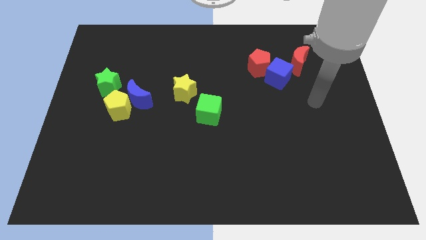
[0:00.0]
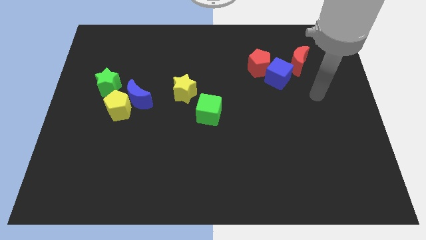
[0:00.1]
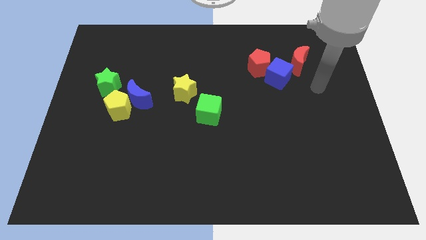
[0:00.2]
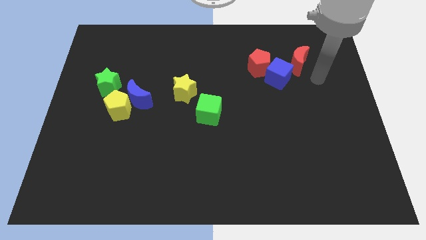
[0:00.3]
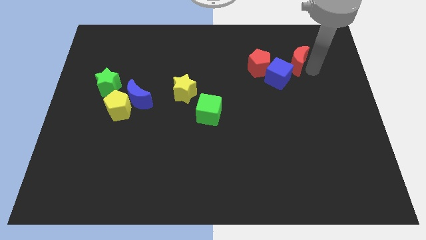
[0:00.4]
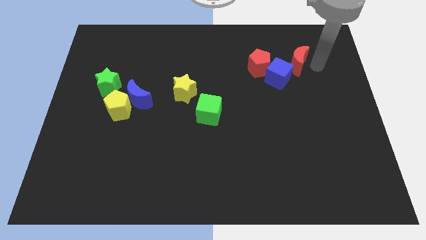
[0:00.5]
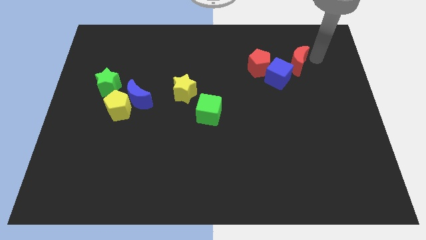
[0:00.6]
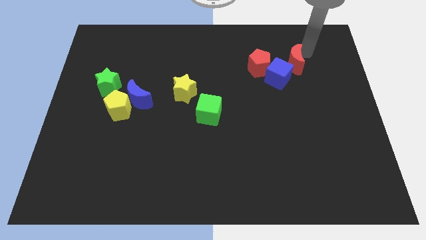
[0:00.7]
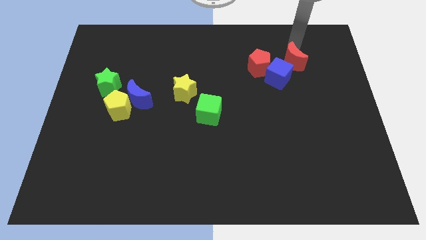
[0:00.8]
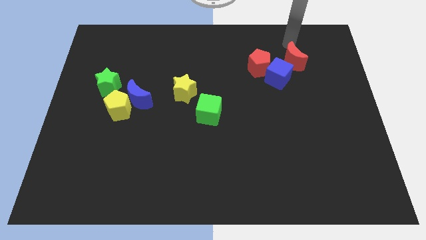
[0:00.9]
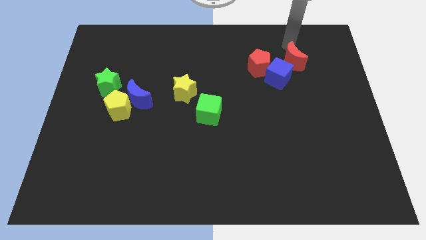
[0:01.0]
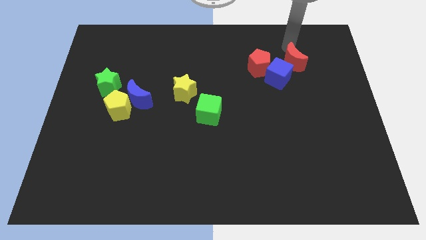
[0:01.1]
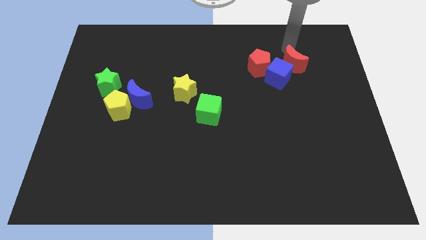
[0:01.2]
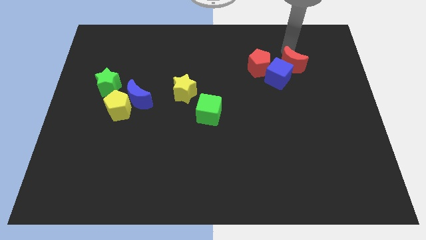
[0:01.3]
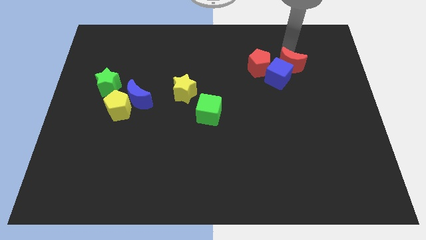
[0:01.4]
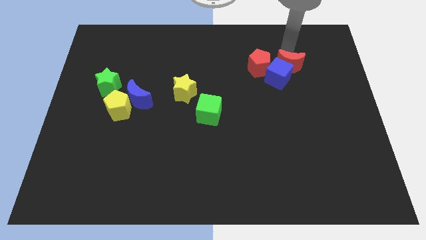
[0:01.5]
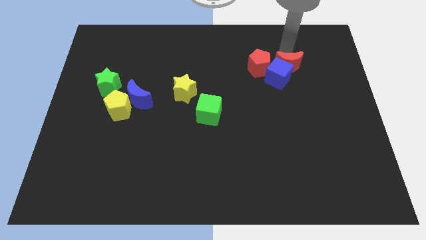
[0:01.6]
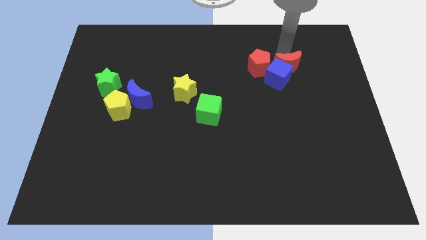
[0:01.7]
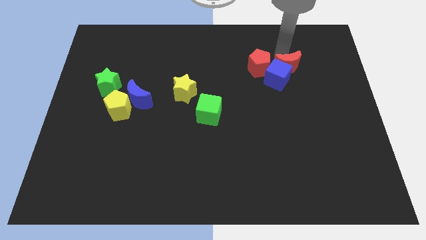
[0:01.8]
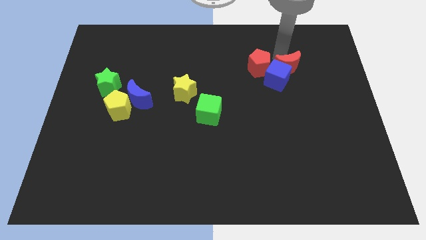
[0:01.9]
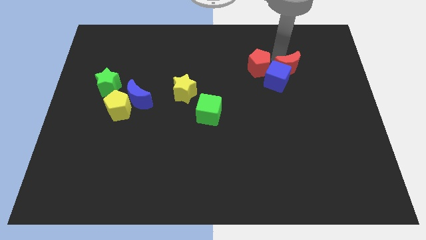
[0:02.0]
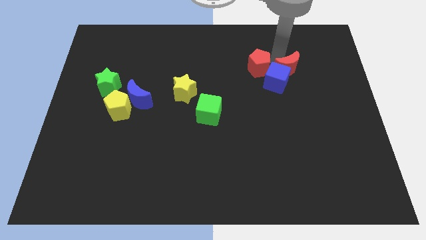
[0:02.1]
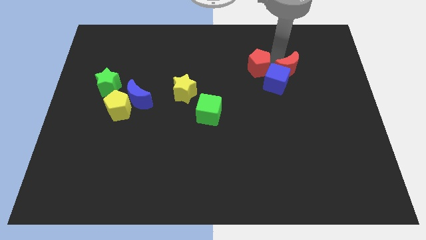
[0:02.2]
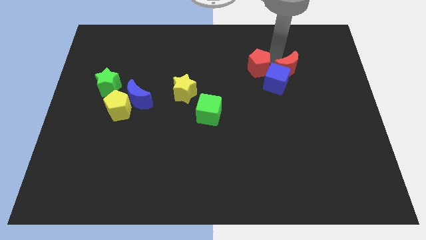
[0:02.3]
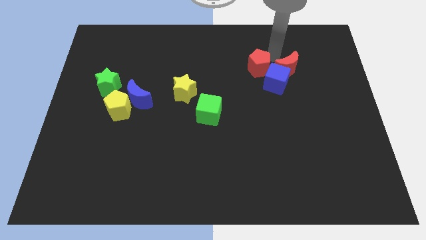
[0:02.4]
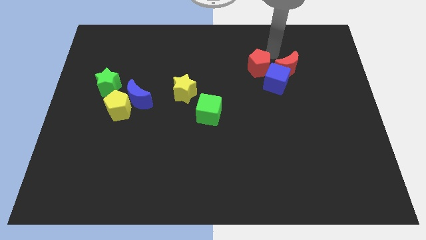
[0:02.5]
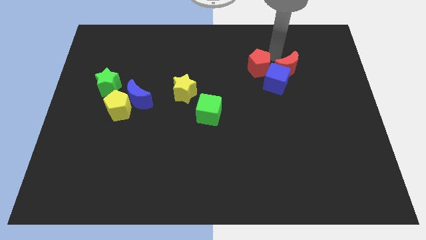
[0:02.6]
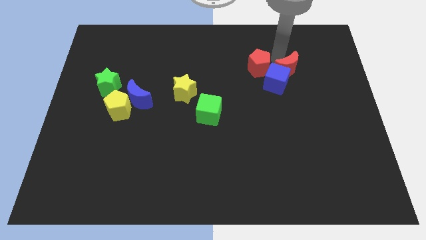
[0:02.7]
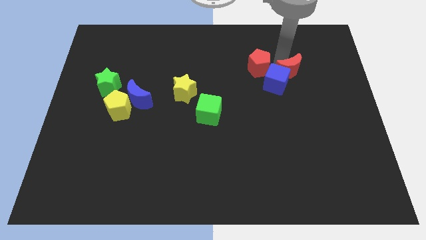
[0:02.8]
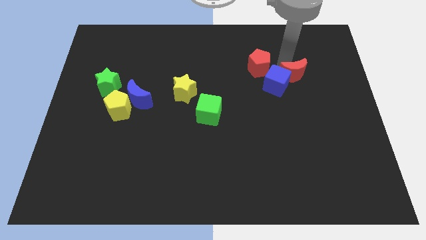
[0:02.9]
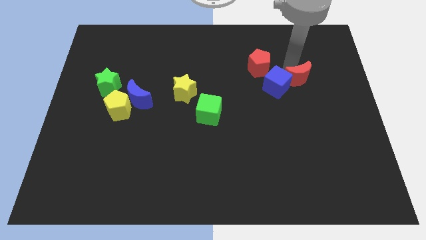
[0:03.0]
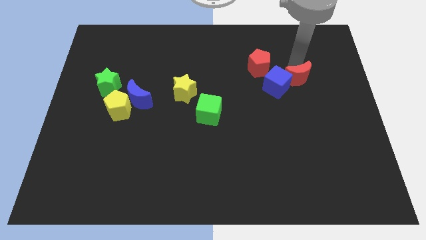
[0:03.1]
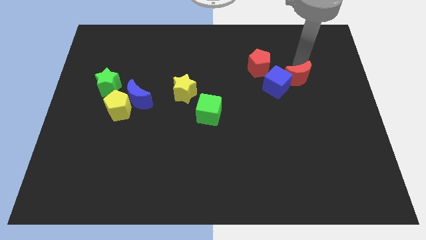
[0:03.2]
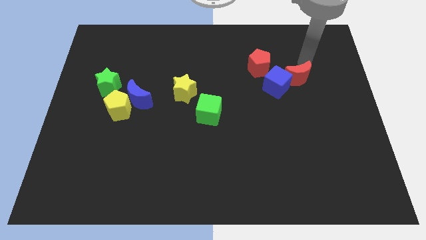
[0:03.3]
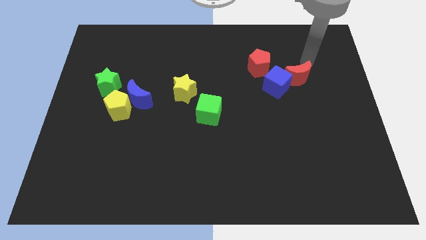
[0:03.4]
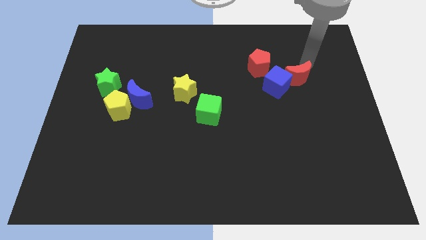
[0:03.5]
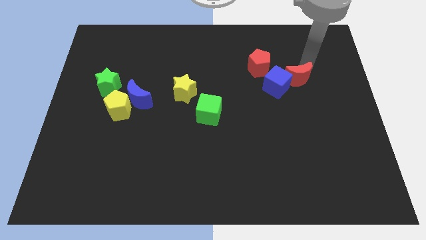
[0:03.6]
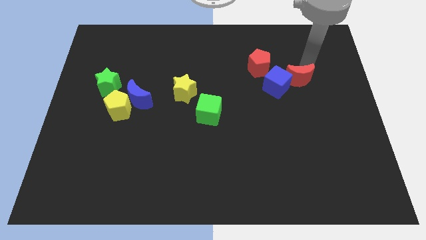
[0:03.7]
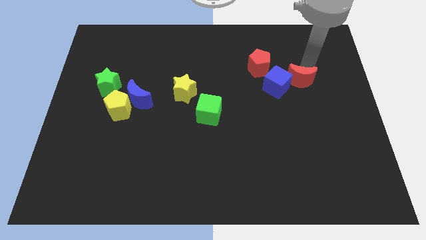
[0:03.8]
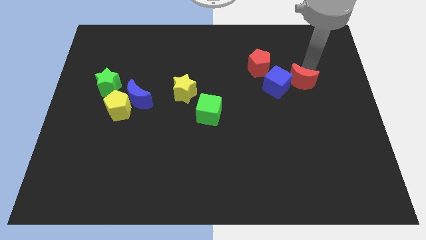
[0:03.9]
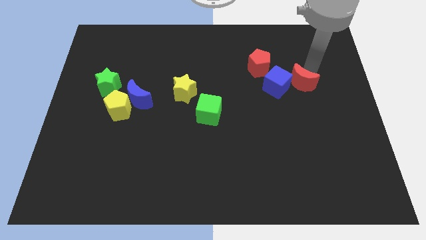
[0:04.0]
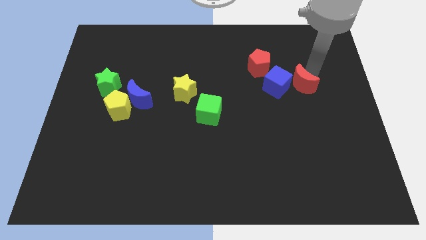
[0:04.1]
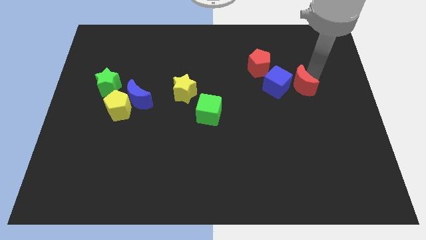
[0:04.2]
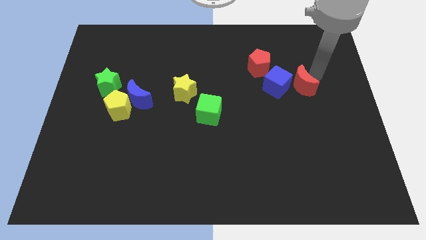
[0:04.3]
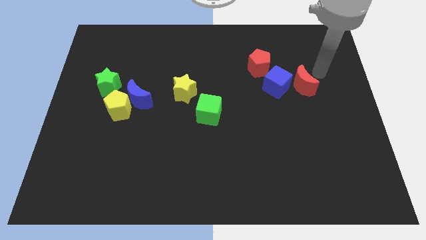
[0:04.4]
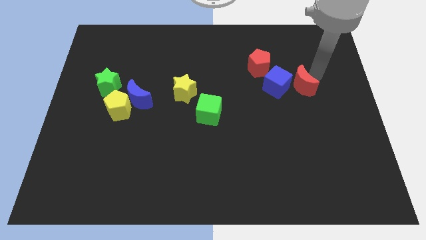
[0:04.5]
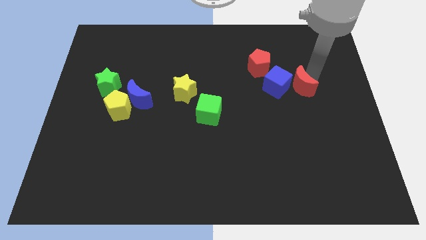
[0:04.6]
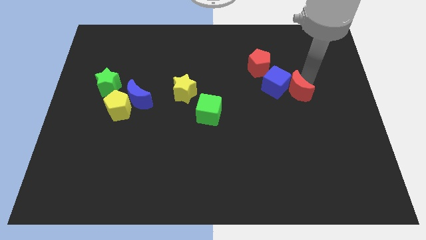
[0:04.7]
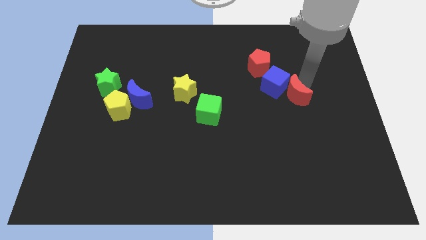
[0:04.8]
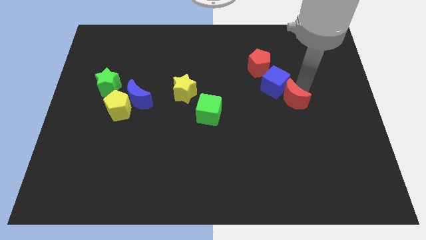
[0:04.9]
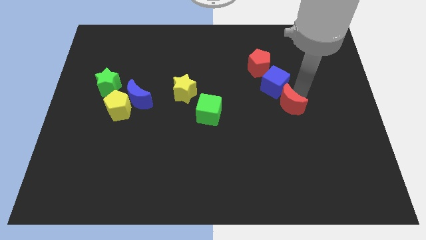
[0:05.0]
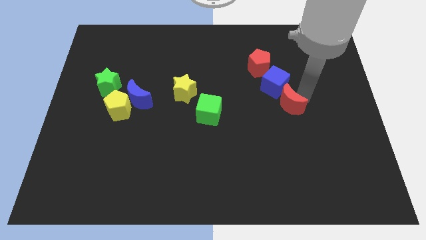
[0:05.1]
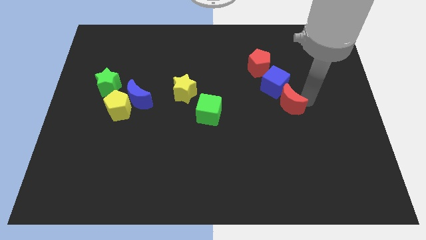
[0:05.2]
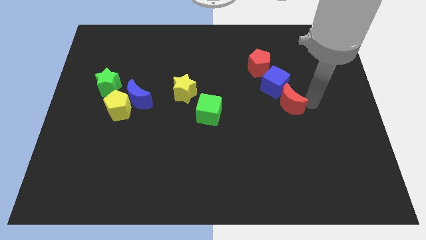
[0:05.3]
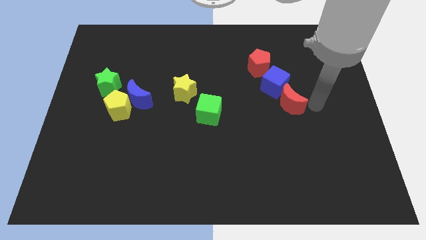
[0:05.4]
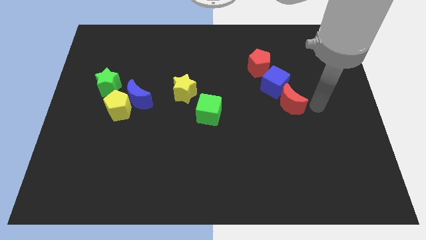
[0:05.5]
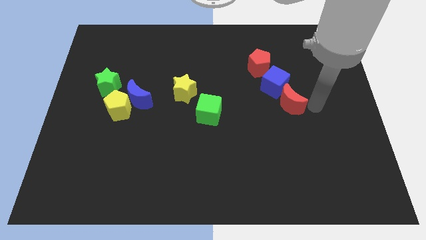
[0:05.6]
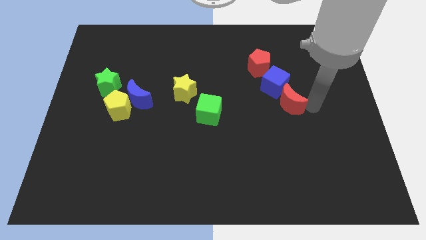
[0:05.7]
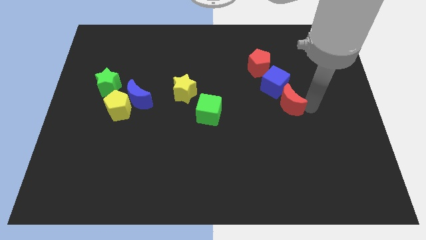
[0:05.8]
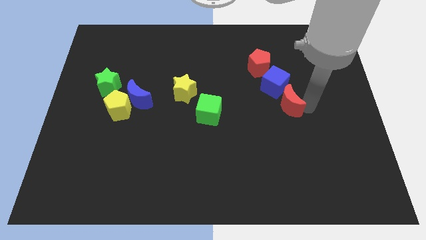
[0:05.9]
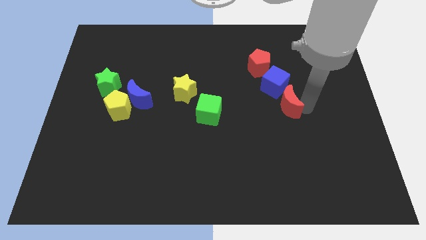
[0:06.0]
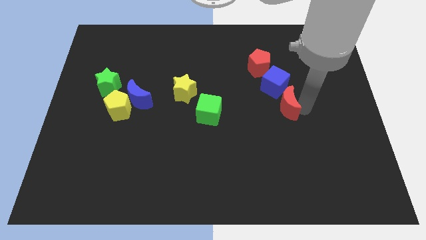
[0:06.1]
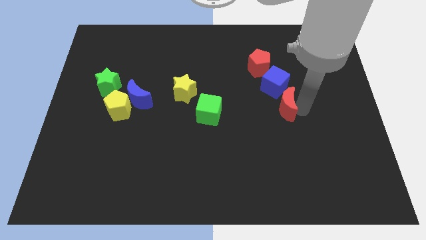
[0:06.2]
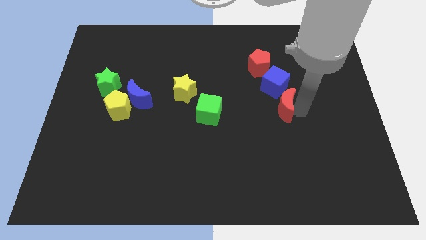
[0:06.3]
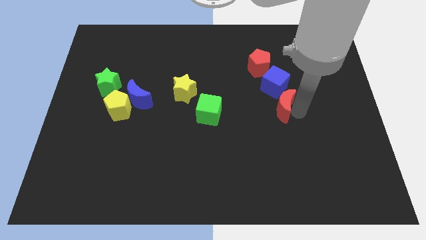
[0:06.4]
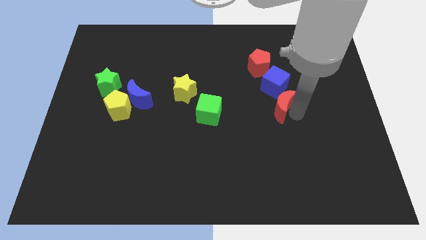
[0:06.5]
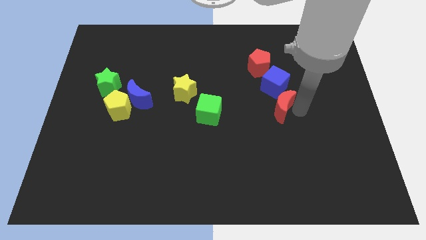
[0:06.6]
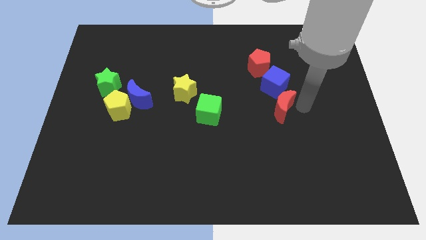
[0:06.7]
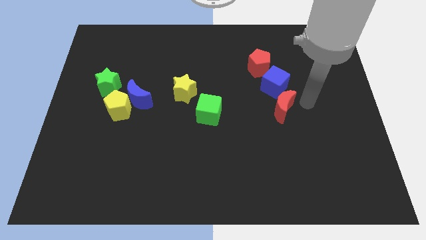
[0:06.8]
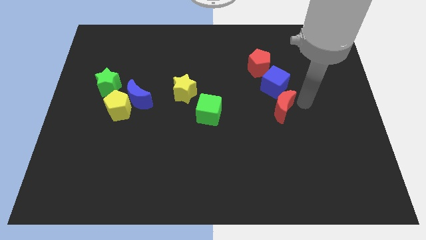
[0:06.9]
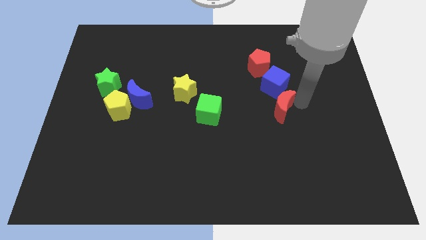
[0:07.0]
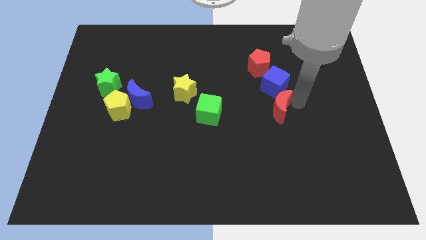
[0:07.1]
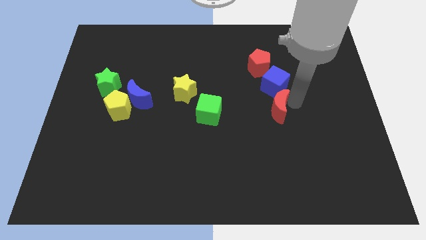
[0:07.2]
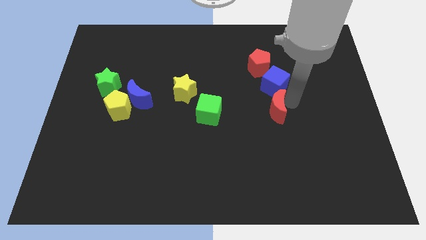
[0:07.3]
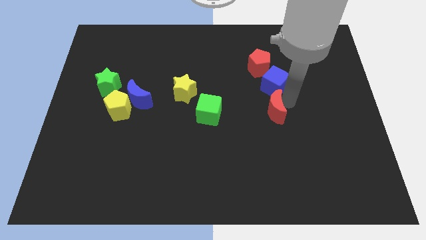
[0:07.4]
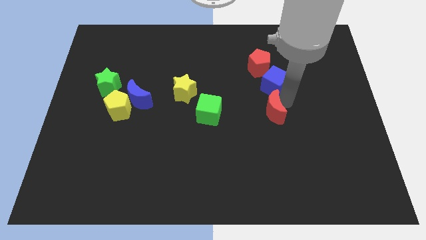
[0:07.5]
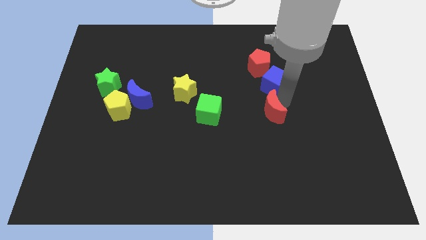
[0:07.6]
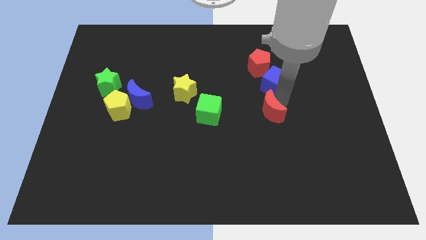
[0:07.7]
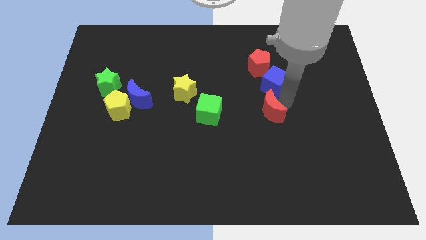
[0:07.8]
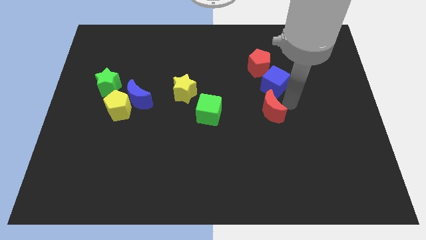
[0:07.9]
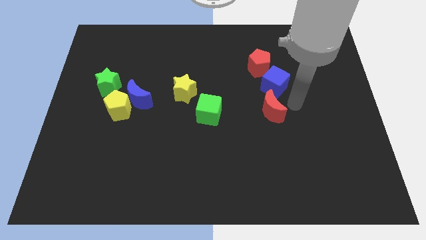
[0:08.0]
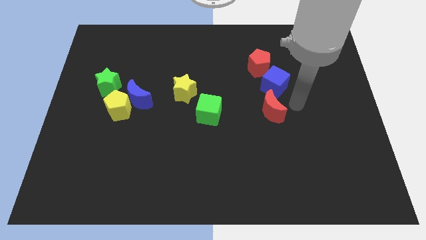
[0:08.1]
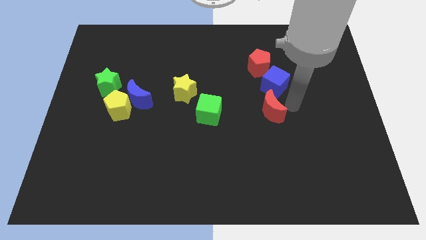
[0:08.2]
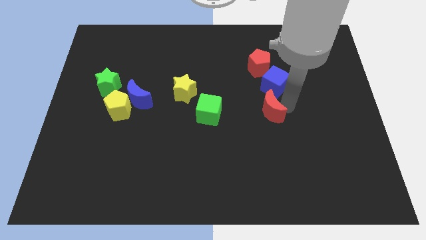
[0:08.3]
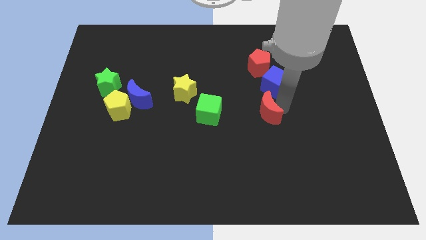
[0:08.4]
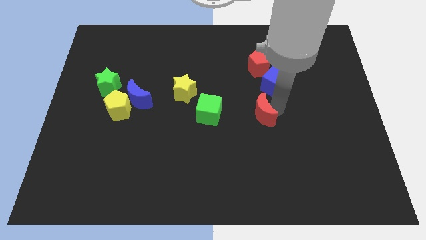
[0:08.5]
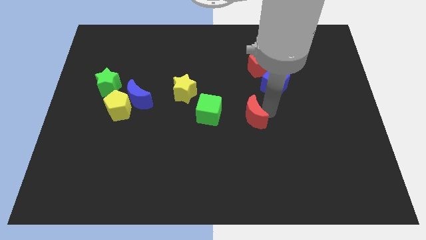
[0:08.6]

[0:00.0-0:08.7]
slide the red moon down and to the left diagonally
